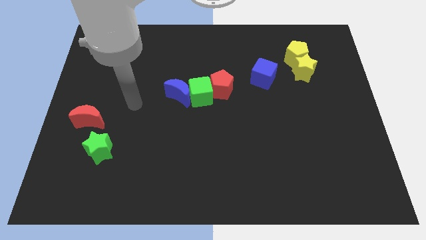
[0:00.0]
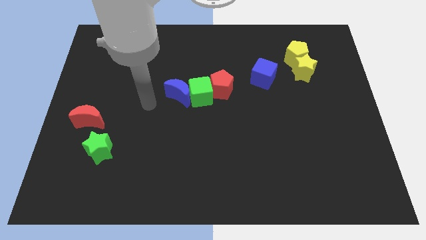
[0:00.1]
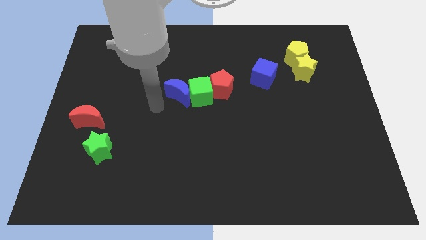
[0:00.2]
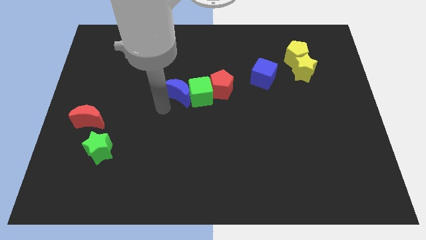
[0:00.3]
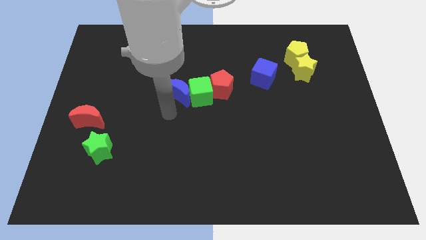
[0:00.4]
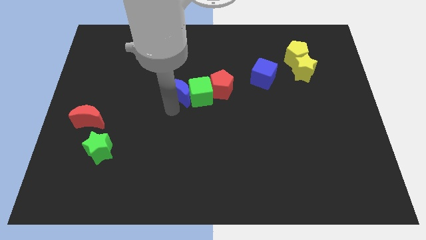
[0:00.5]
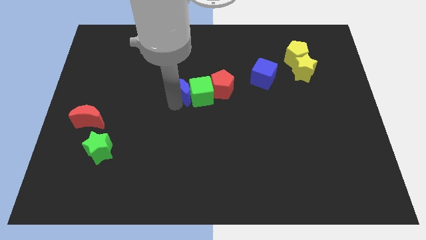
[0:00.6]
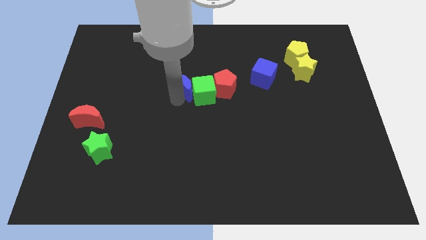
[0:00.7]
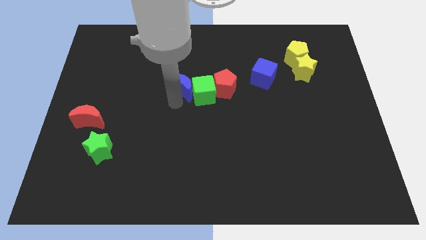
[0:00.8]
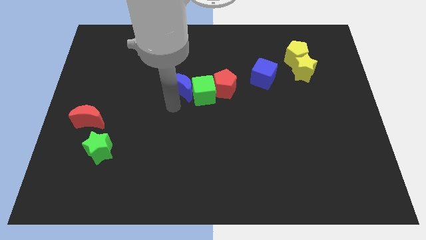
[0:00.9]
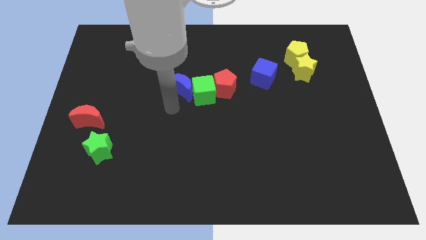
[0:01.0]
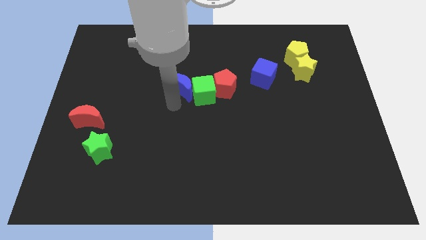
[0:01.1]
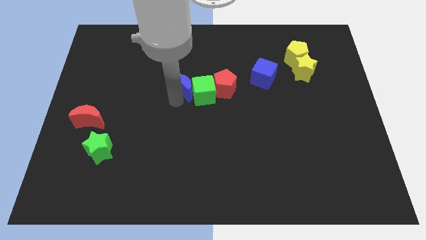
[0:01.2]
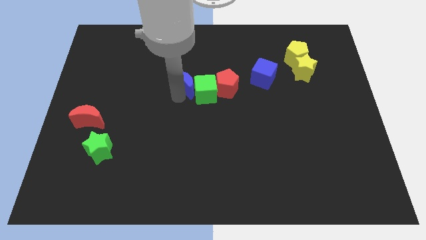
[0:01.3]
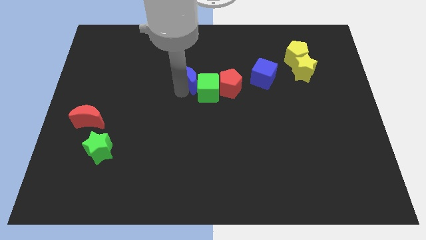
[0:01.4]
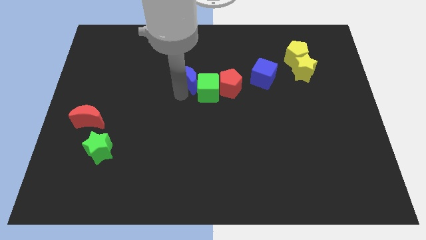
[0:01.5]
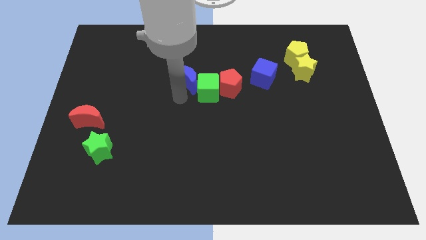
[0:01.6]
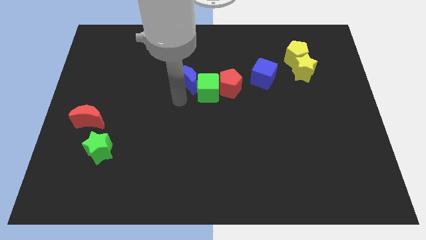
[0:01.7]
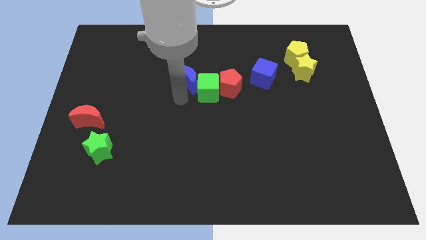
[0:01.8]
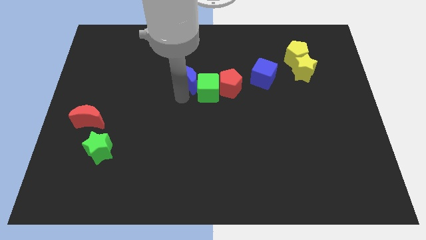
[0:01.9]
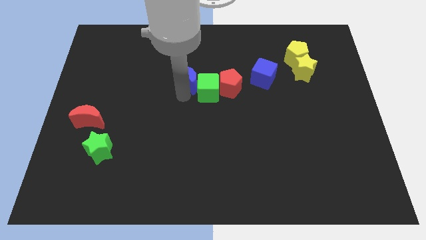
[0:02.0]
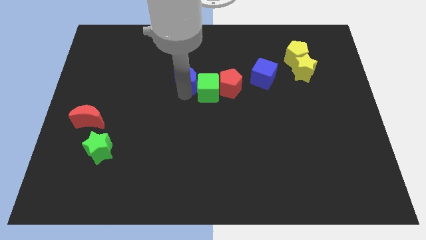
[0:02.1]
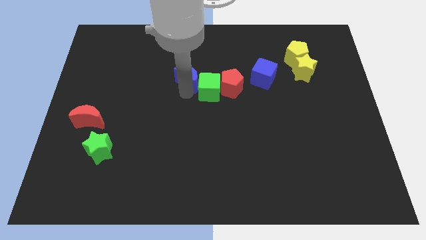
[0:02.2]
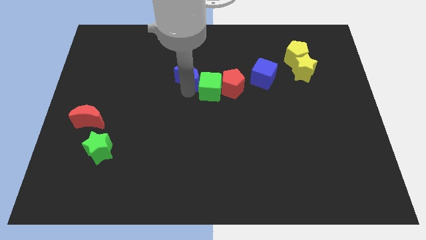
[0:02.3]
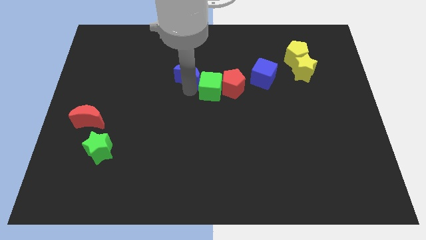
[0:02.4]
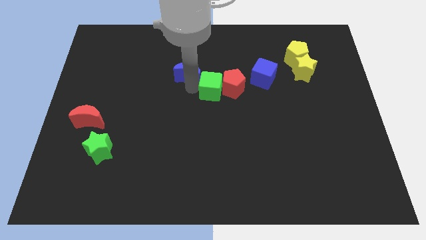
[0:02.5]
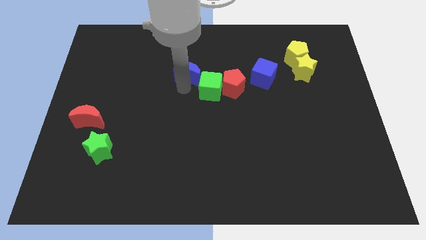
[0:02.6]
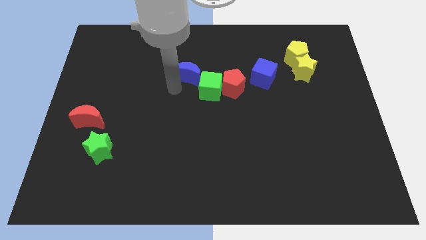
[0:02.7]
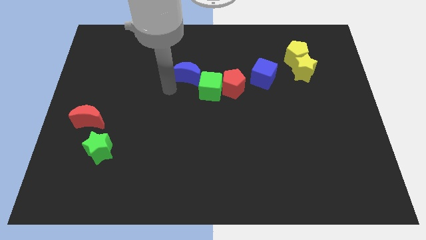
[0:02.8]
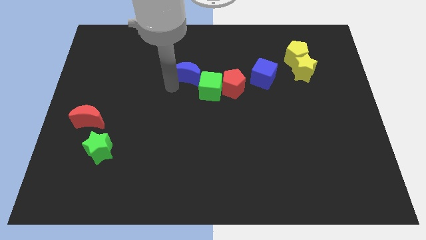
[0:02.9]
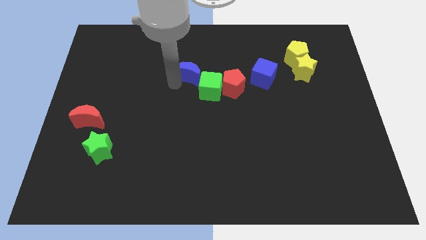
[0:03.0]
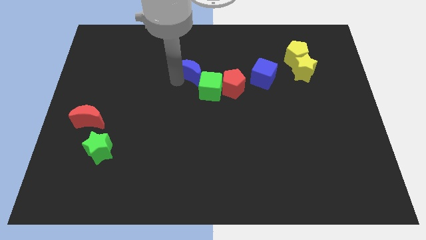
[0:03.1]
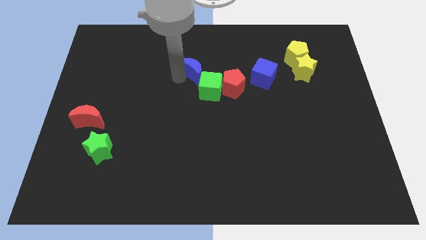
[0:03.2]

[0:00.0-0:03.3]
slightly move the blue moon upwards and right

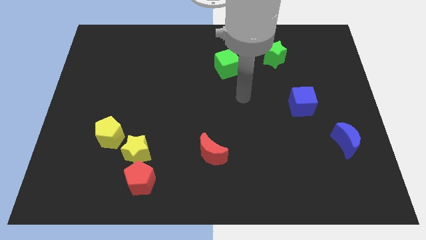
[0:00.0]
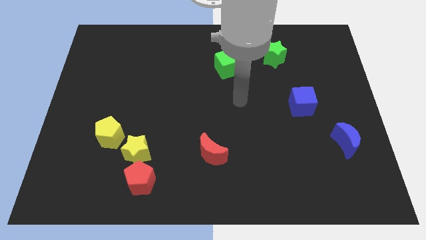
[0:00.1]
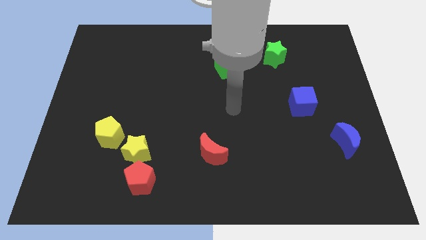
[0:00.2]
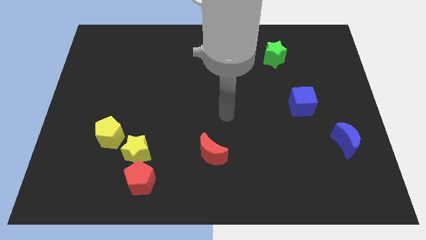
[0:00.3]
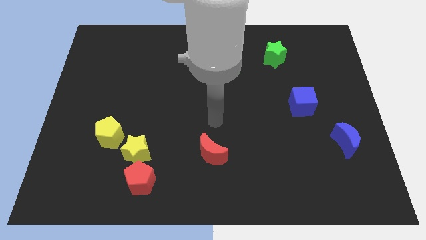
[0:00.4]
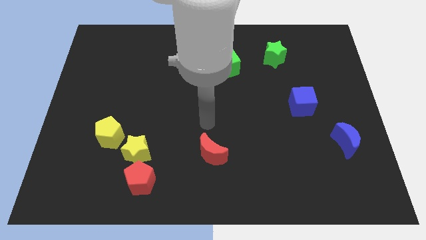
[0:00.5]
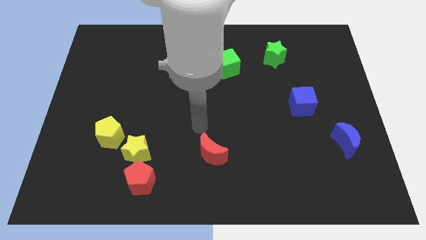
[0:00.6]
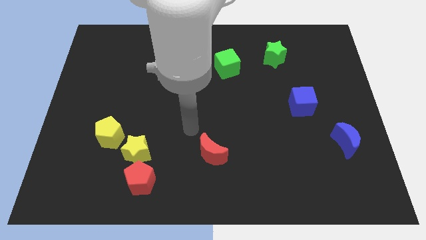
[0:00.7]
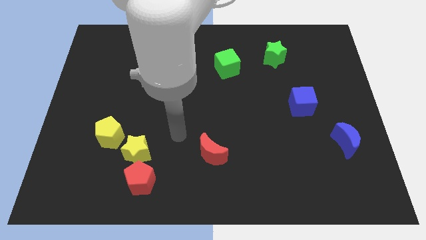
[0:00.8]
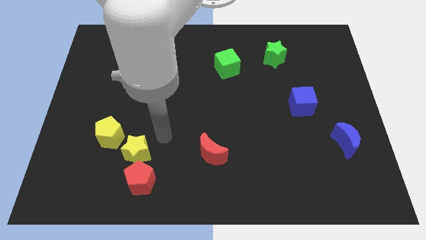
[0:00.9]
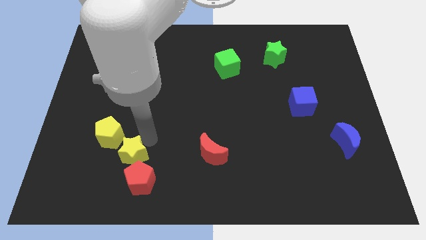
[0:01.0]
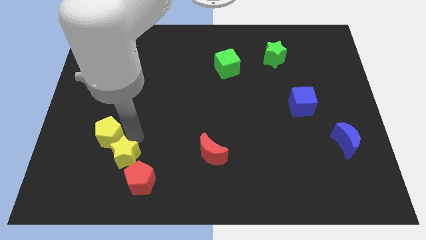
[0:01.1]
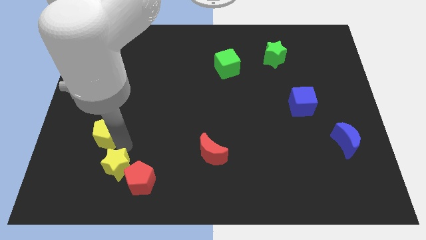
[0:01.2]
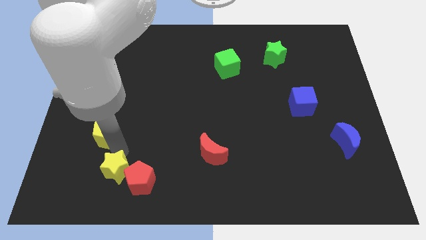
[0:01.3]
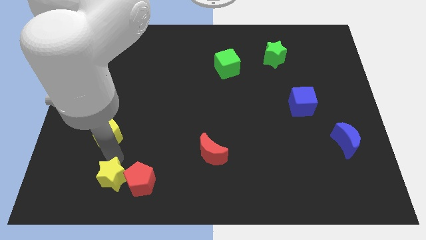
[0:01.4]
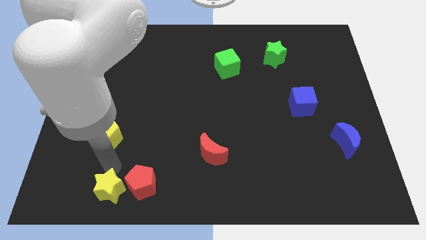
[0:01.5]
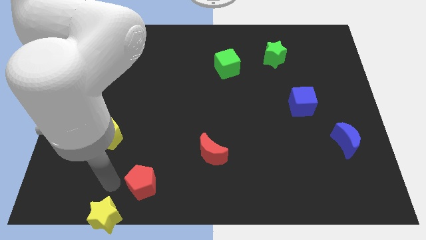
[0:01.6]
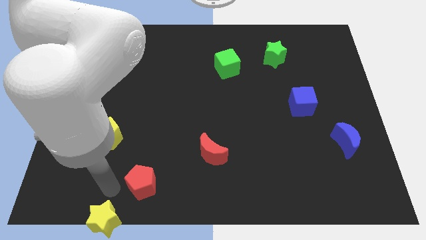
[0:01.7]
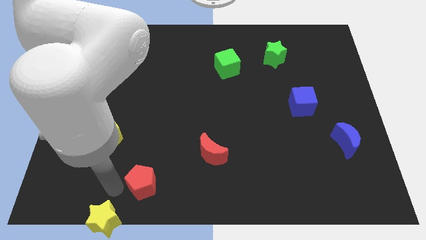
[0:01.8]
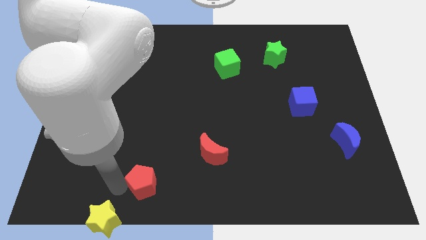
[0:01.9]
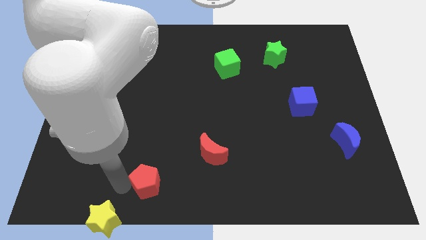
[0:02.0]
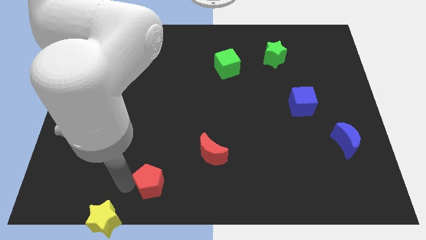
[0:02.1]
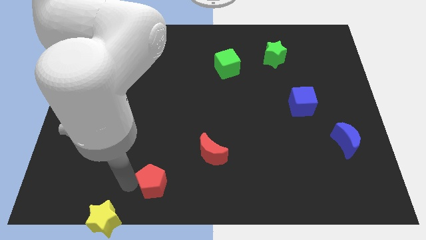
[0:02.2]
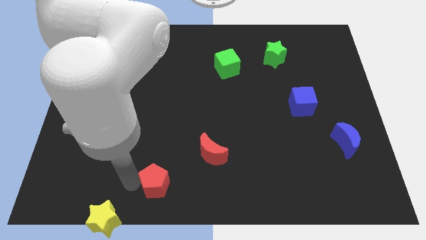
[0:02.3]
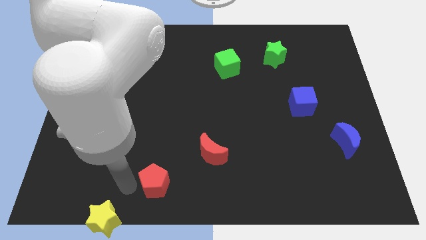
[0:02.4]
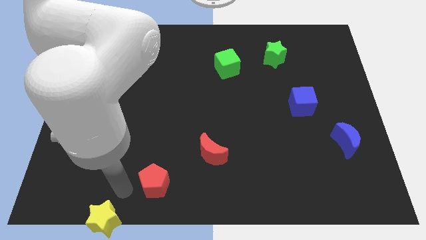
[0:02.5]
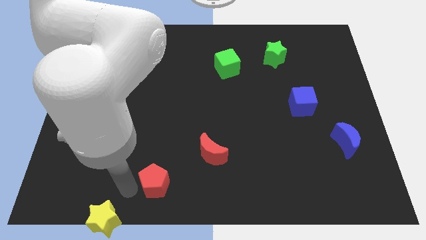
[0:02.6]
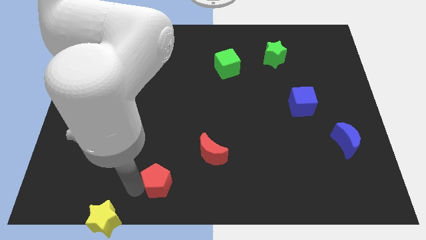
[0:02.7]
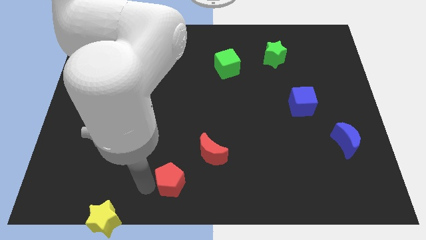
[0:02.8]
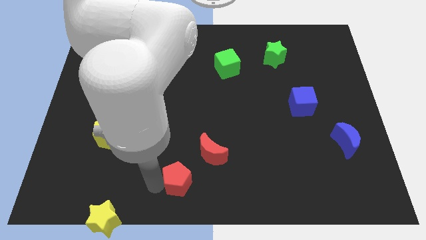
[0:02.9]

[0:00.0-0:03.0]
slide the red pentagon a bit to the right

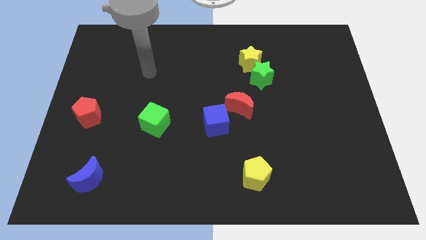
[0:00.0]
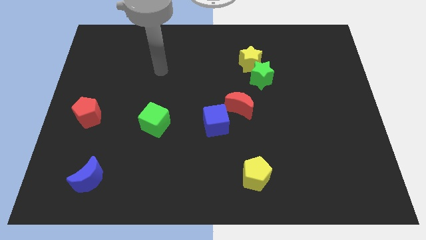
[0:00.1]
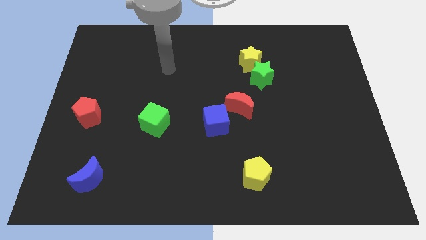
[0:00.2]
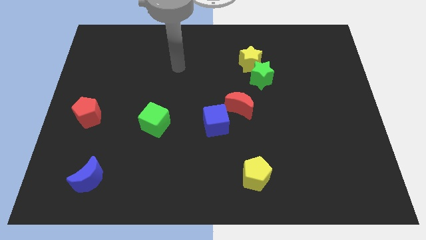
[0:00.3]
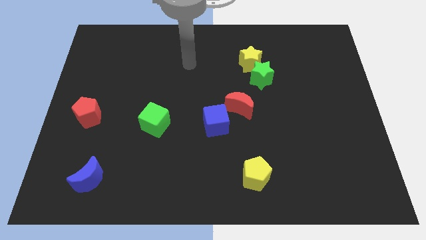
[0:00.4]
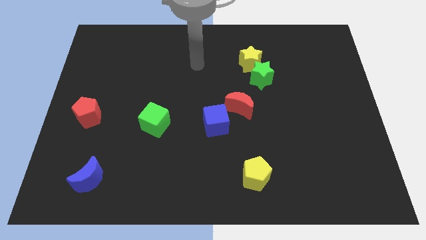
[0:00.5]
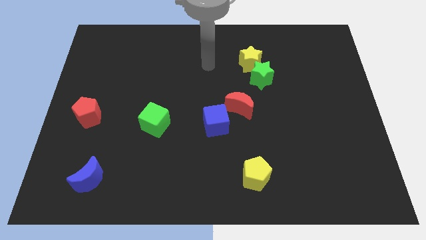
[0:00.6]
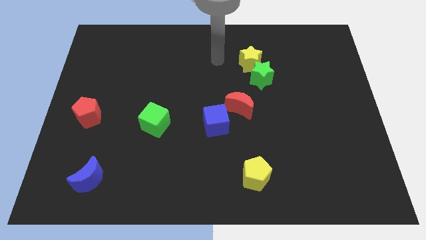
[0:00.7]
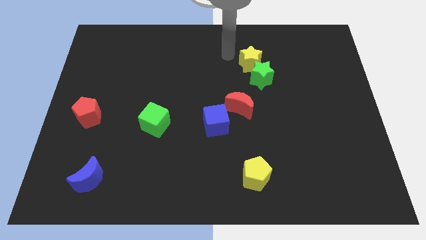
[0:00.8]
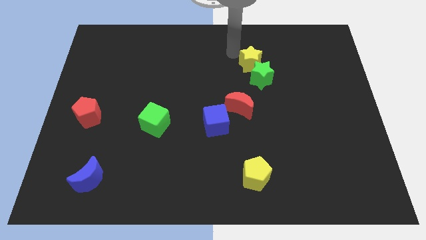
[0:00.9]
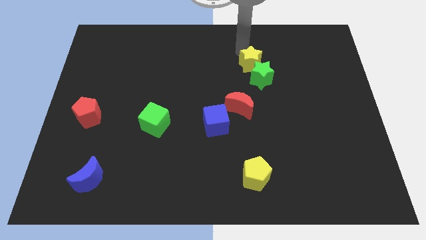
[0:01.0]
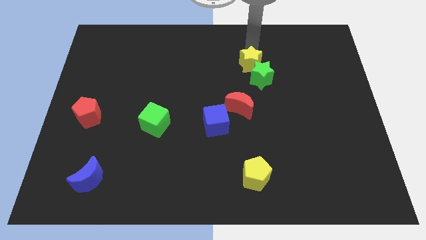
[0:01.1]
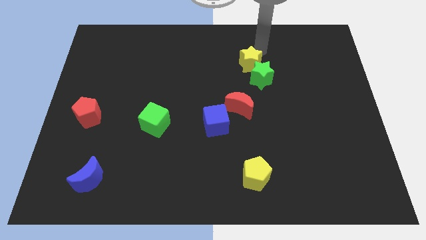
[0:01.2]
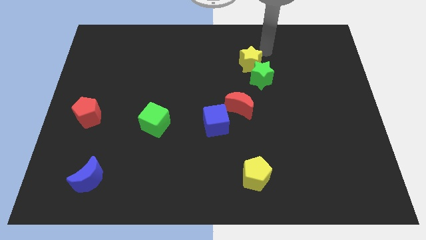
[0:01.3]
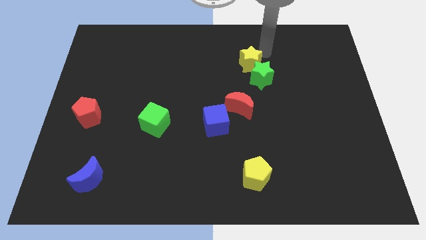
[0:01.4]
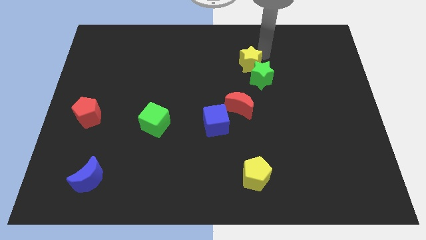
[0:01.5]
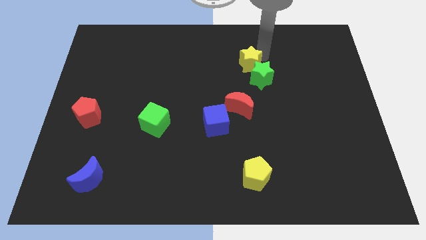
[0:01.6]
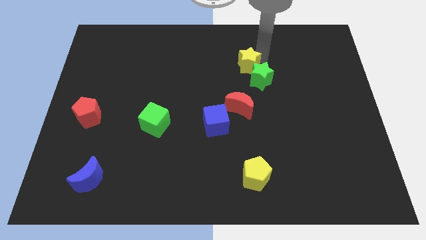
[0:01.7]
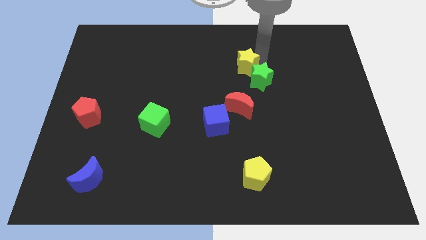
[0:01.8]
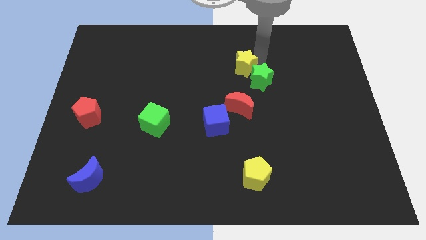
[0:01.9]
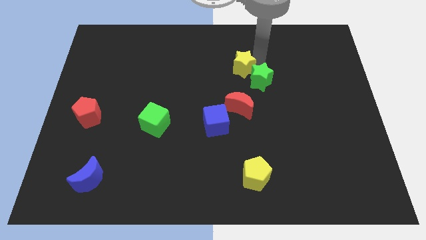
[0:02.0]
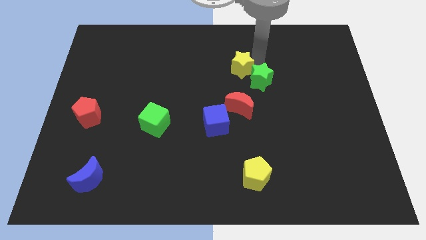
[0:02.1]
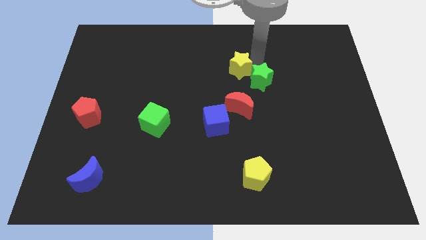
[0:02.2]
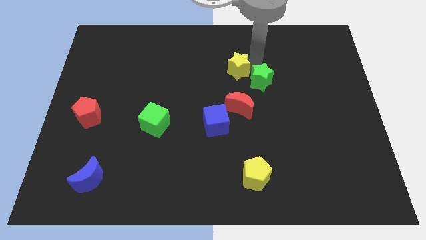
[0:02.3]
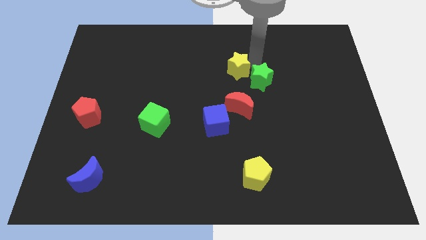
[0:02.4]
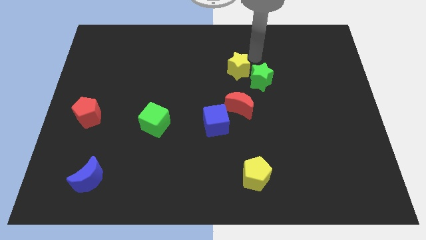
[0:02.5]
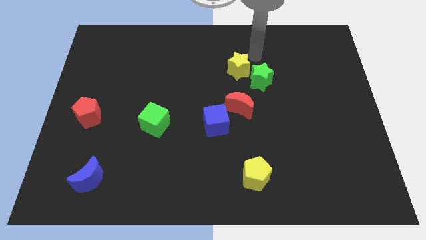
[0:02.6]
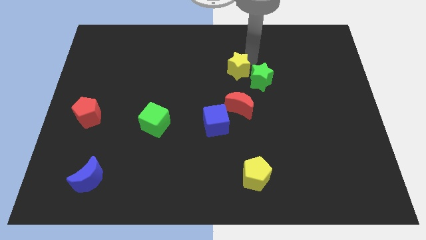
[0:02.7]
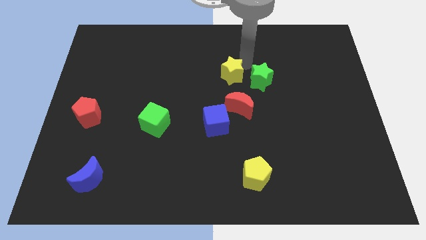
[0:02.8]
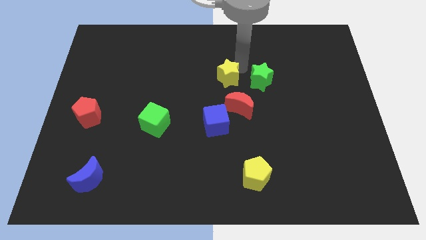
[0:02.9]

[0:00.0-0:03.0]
move the yellow star downwards and then left a little bit
